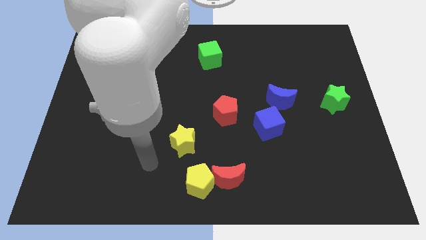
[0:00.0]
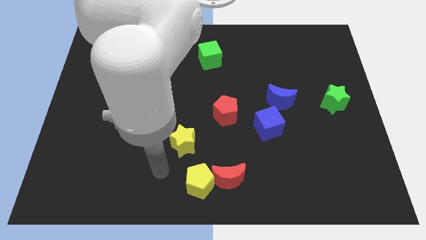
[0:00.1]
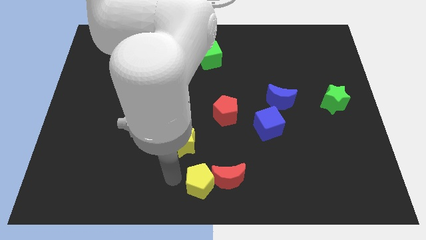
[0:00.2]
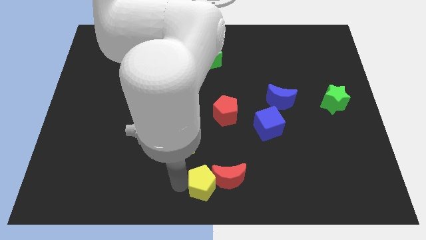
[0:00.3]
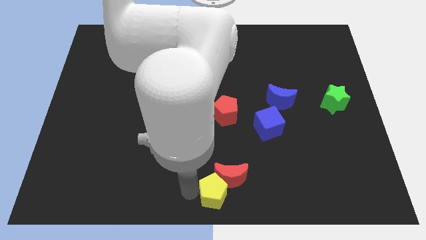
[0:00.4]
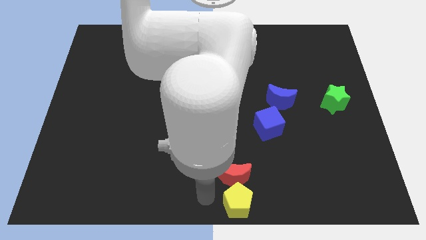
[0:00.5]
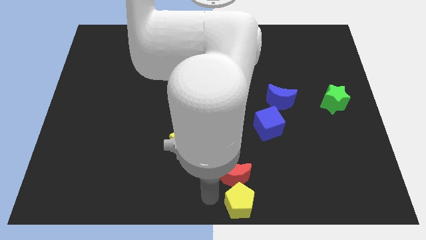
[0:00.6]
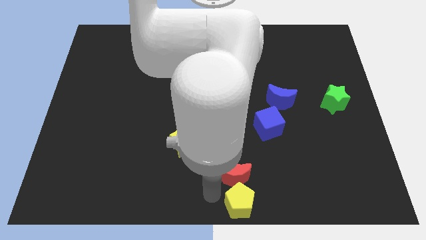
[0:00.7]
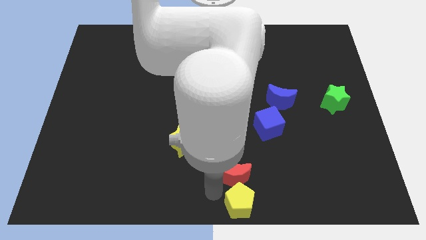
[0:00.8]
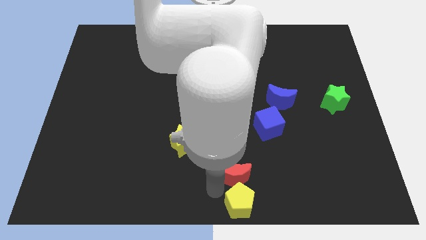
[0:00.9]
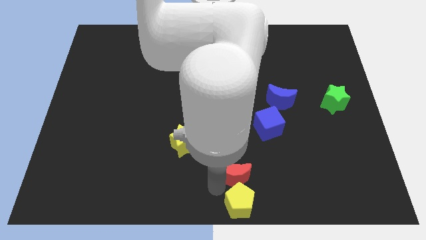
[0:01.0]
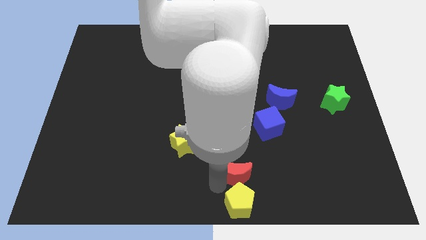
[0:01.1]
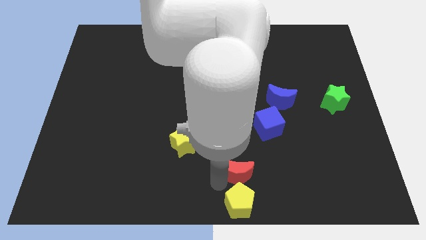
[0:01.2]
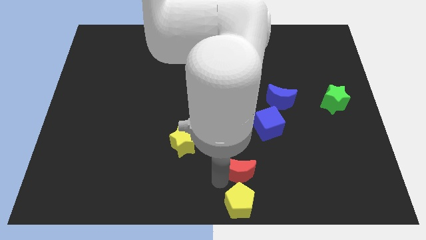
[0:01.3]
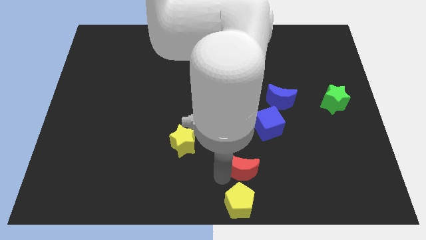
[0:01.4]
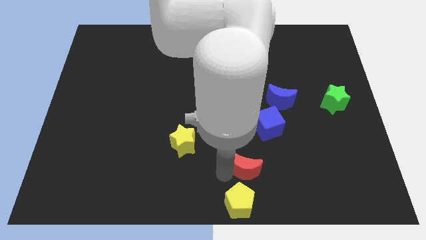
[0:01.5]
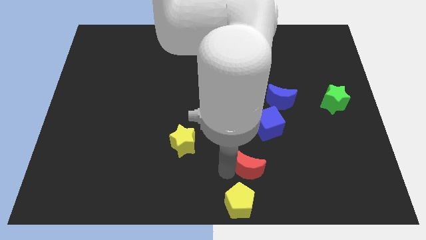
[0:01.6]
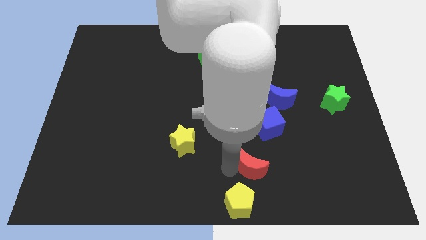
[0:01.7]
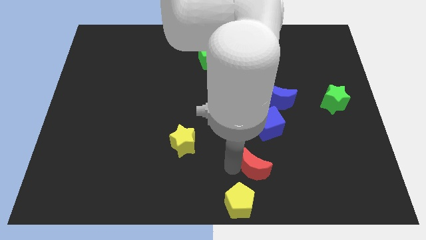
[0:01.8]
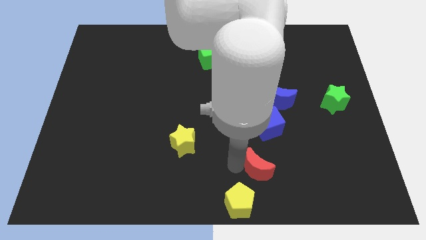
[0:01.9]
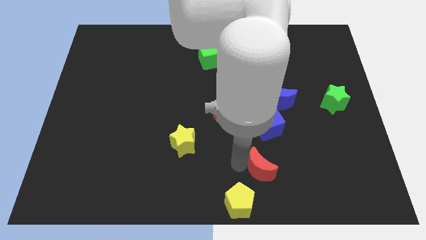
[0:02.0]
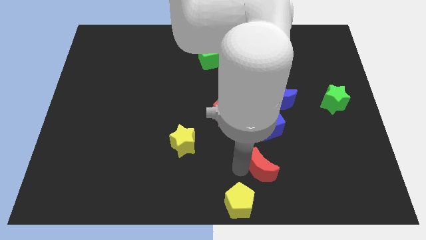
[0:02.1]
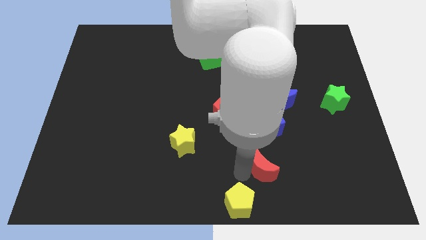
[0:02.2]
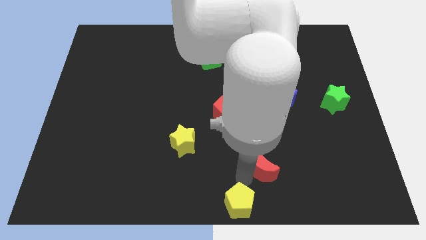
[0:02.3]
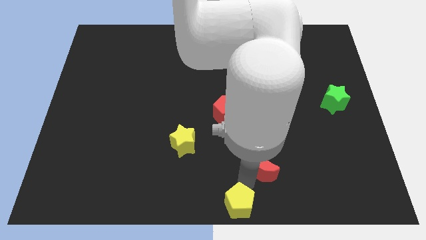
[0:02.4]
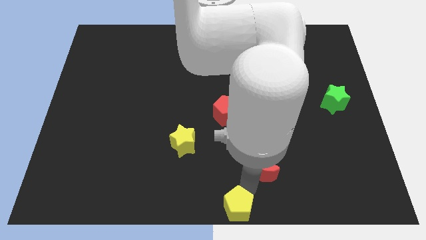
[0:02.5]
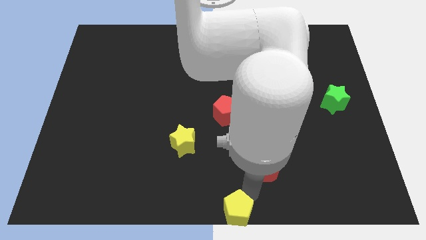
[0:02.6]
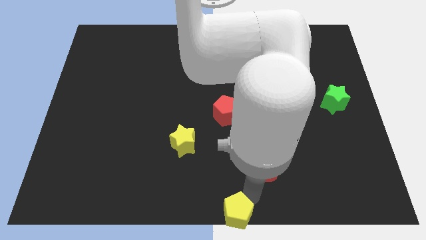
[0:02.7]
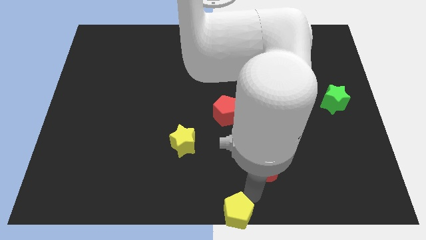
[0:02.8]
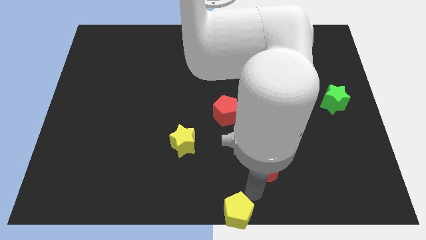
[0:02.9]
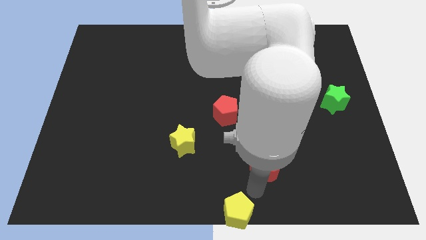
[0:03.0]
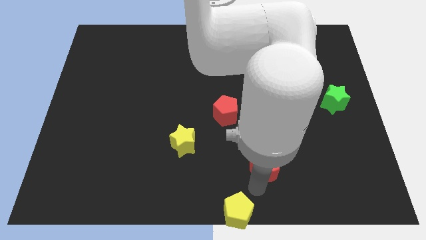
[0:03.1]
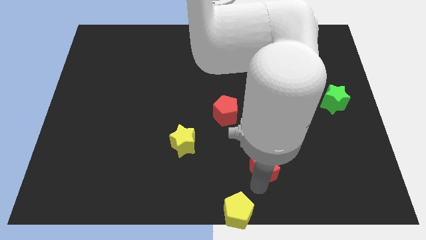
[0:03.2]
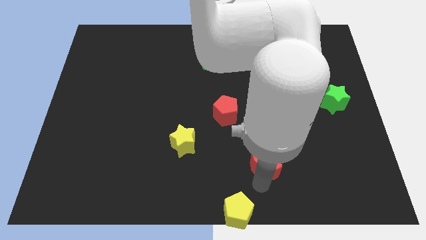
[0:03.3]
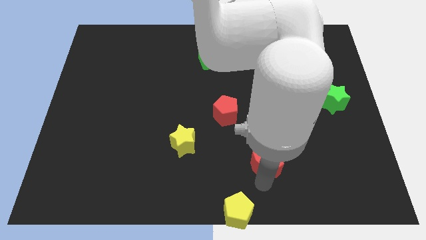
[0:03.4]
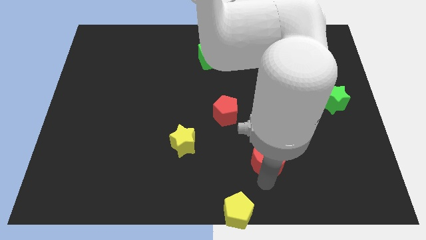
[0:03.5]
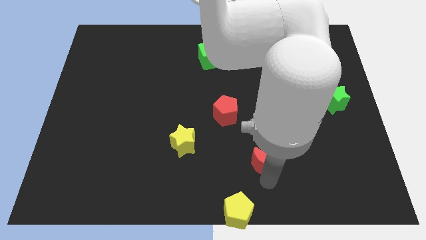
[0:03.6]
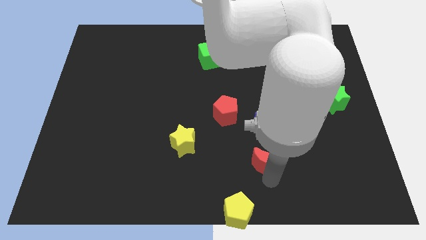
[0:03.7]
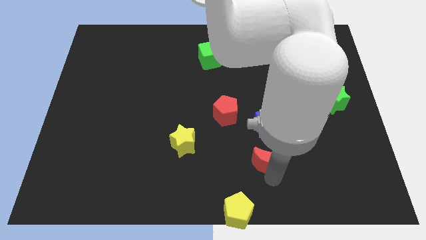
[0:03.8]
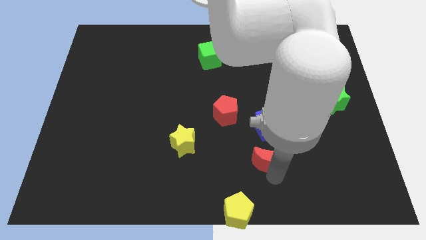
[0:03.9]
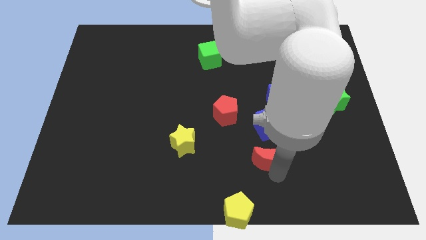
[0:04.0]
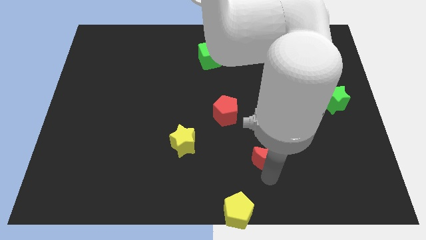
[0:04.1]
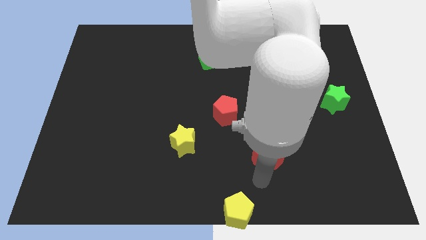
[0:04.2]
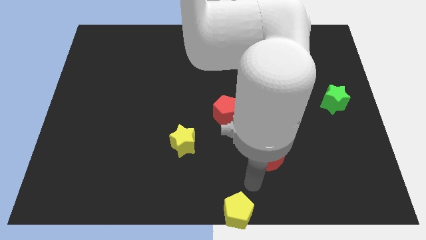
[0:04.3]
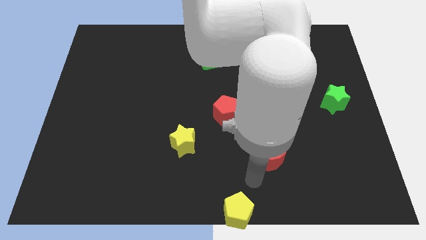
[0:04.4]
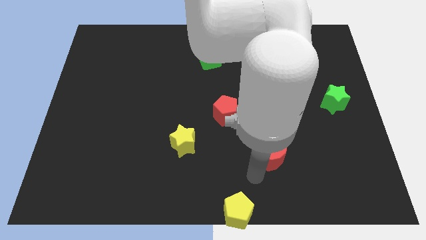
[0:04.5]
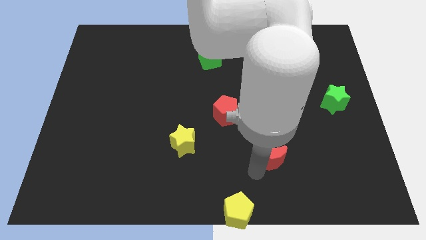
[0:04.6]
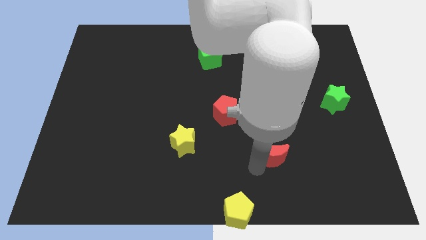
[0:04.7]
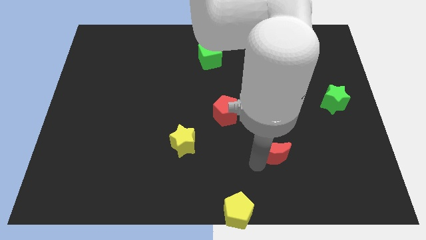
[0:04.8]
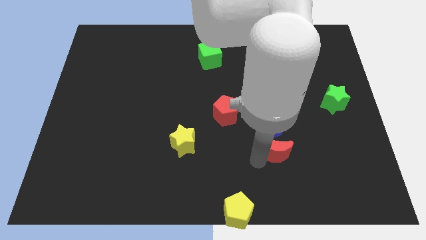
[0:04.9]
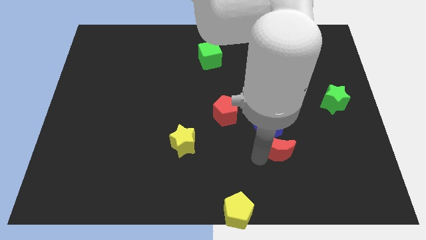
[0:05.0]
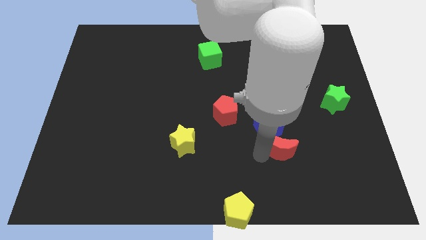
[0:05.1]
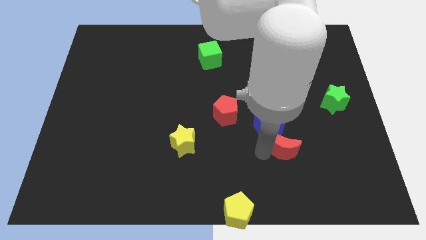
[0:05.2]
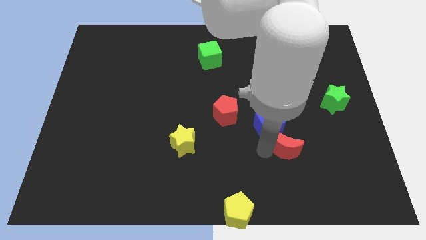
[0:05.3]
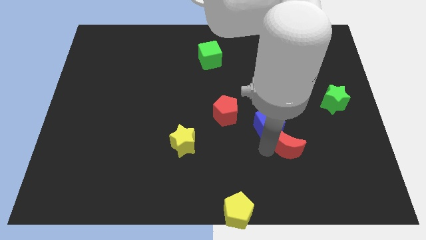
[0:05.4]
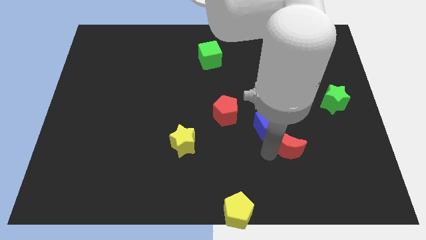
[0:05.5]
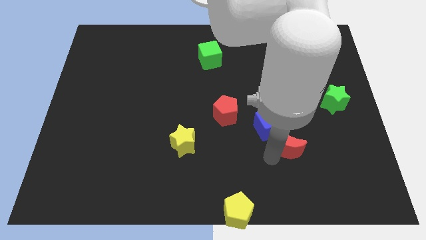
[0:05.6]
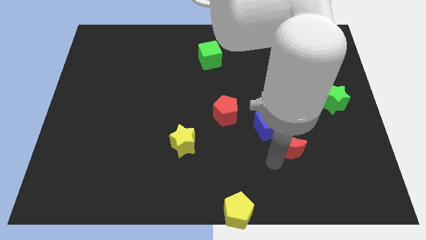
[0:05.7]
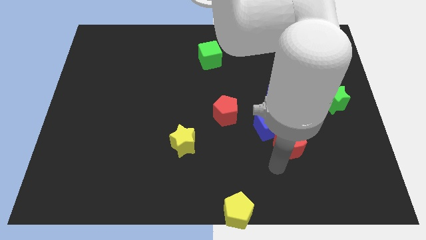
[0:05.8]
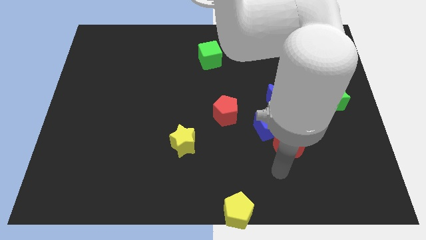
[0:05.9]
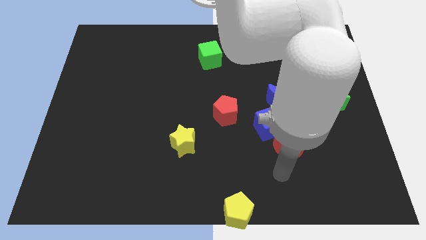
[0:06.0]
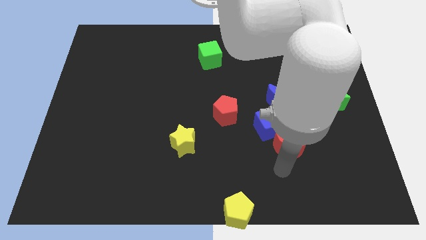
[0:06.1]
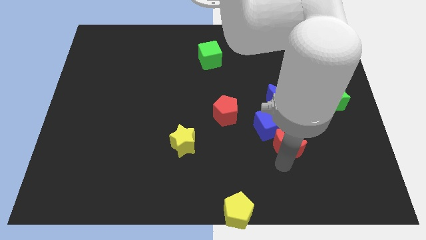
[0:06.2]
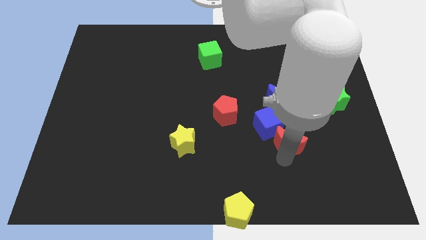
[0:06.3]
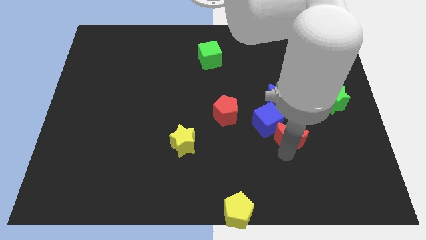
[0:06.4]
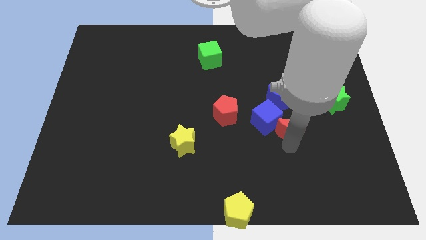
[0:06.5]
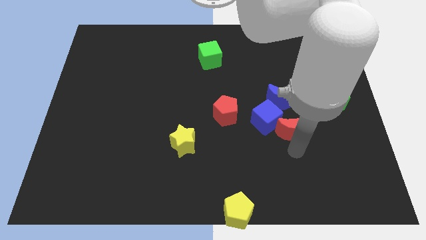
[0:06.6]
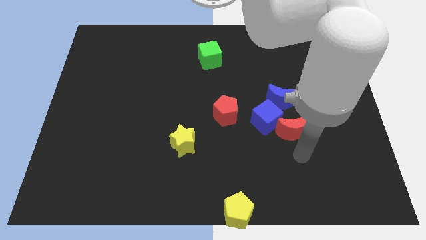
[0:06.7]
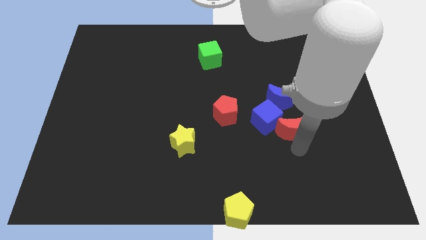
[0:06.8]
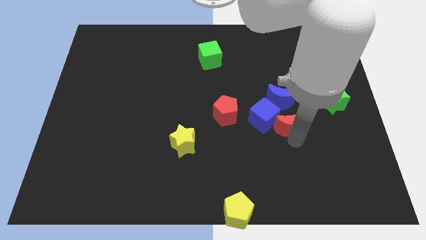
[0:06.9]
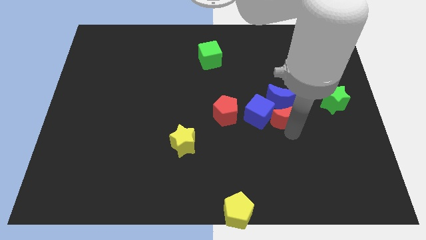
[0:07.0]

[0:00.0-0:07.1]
slide the red moon next to the blue moon
